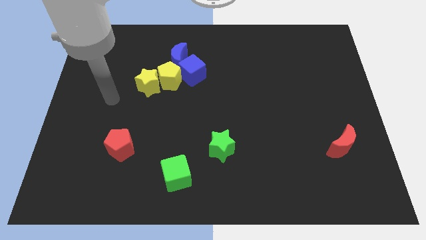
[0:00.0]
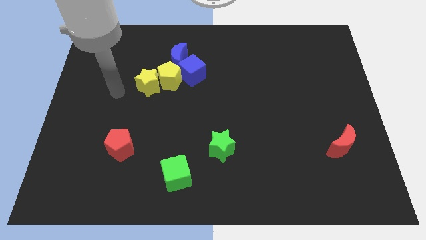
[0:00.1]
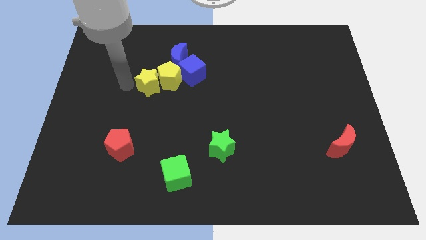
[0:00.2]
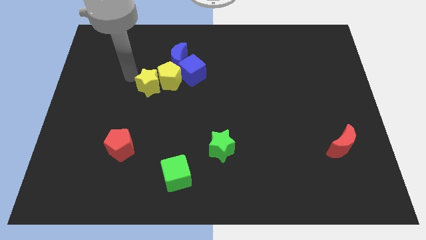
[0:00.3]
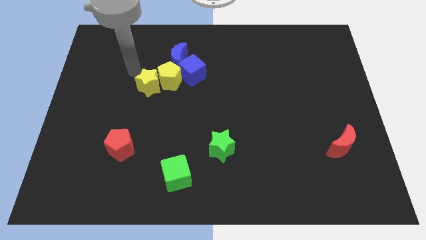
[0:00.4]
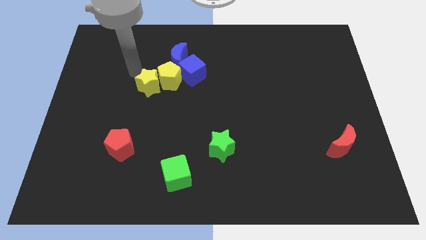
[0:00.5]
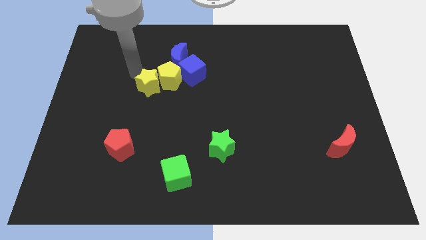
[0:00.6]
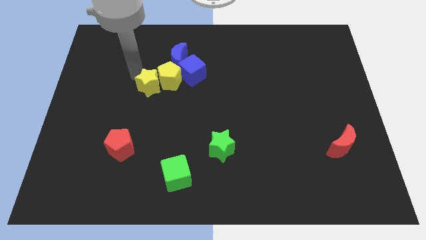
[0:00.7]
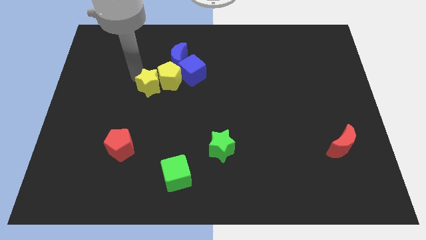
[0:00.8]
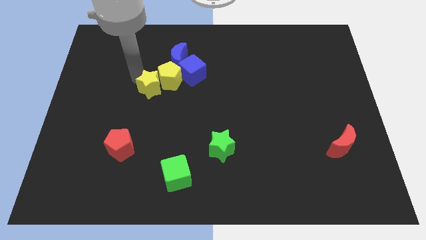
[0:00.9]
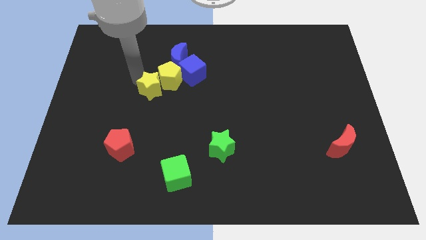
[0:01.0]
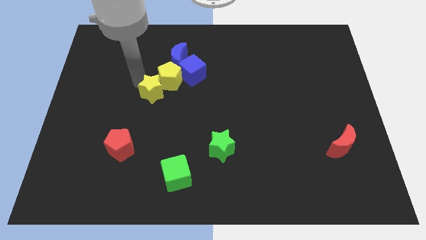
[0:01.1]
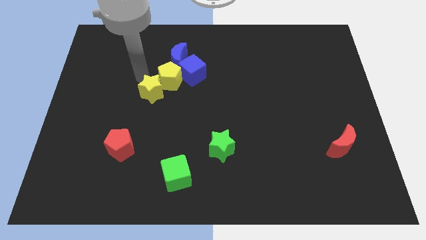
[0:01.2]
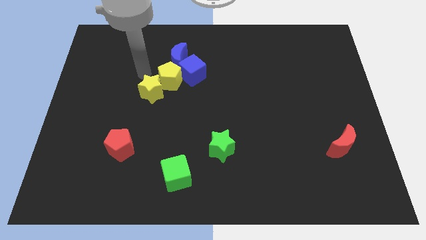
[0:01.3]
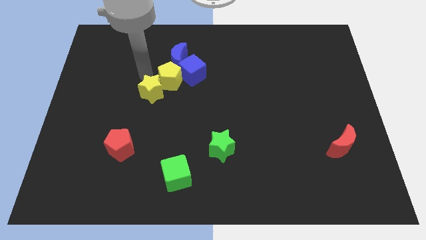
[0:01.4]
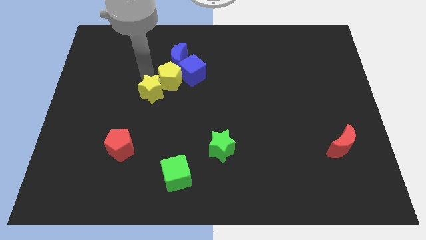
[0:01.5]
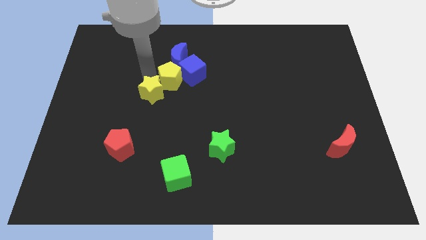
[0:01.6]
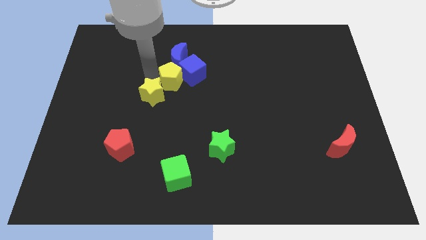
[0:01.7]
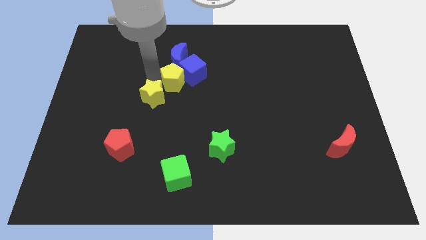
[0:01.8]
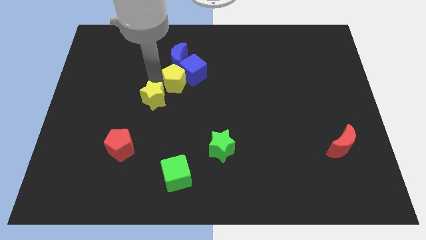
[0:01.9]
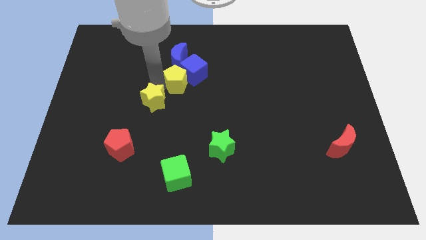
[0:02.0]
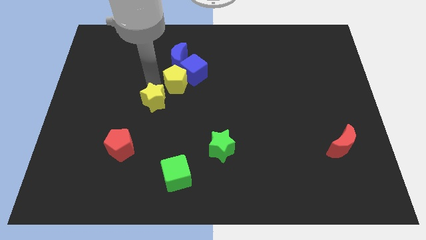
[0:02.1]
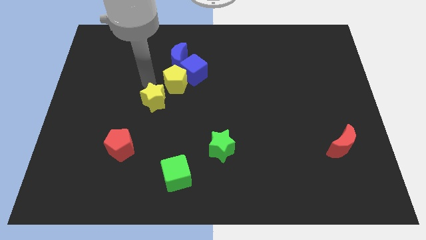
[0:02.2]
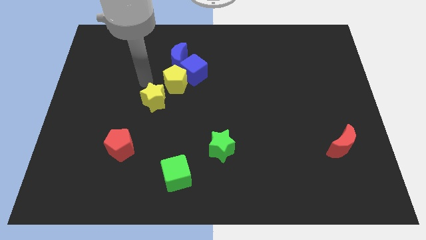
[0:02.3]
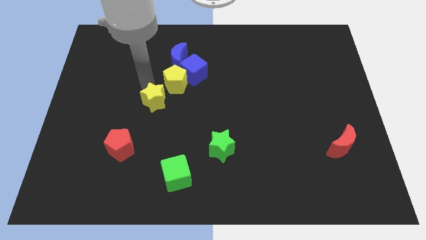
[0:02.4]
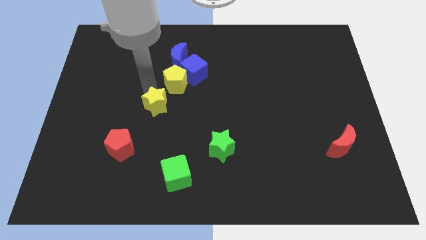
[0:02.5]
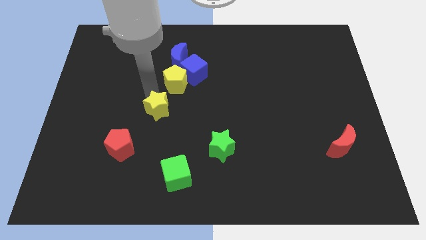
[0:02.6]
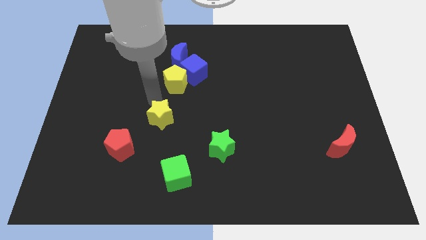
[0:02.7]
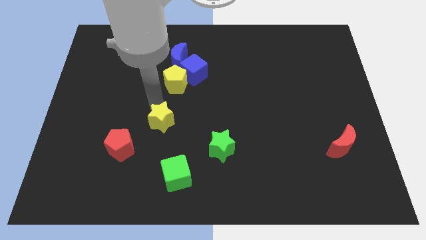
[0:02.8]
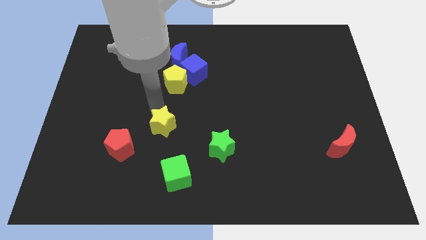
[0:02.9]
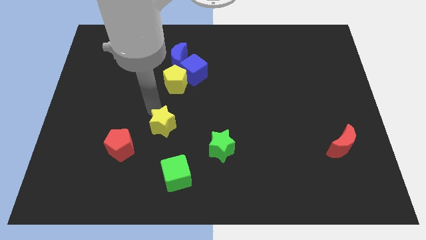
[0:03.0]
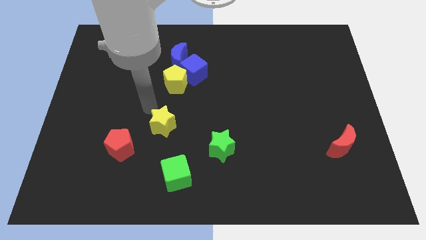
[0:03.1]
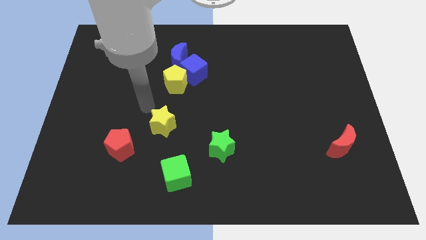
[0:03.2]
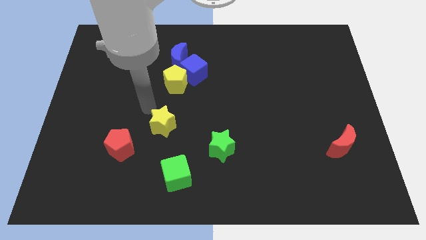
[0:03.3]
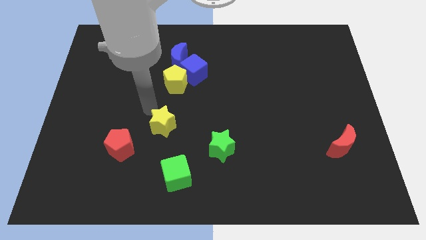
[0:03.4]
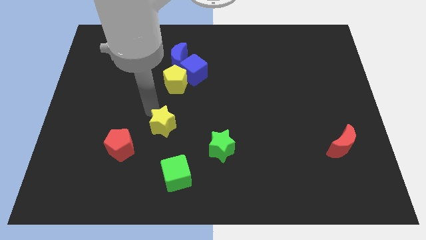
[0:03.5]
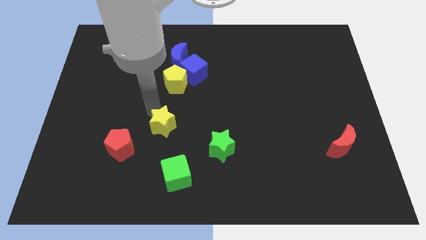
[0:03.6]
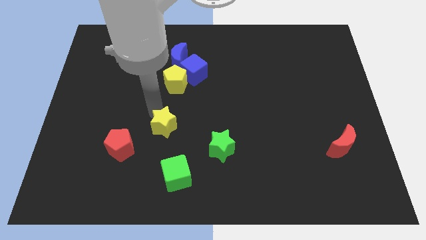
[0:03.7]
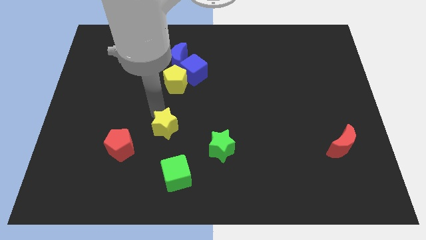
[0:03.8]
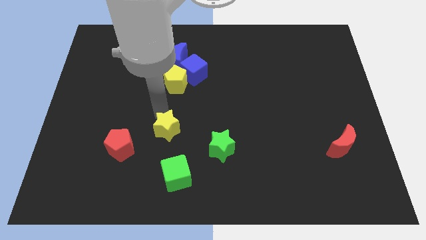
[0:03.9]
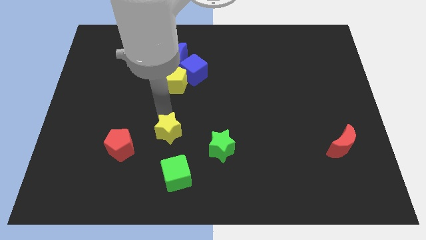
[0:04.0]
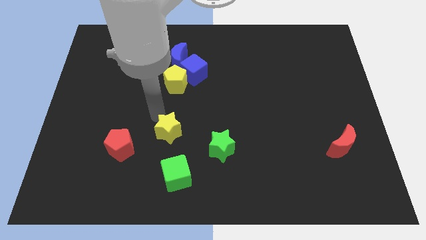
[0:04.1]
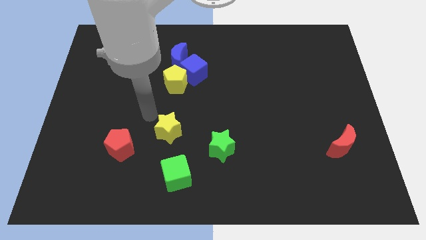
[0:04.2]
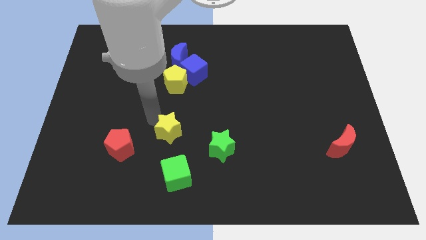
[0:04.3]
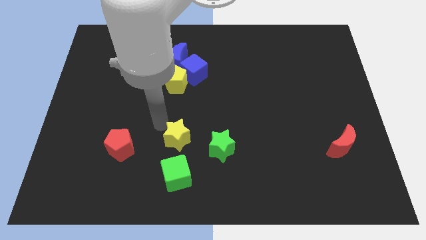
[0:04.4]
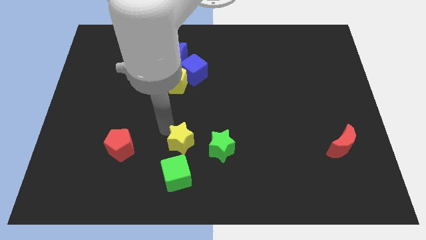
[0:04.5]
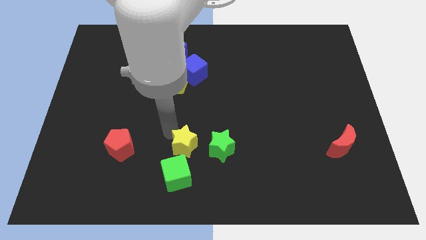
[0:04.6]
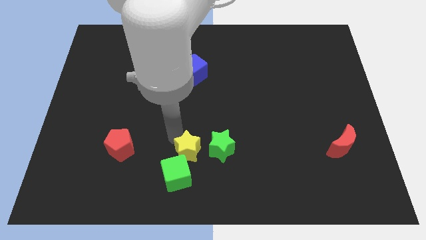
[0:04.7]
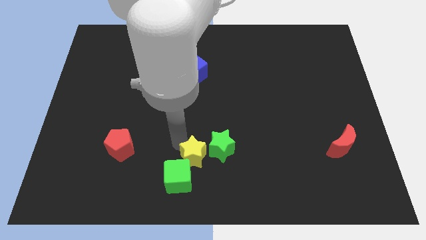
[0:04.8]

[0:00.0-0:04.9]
push the yellow star down and to the right

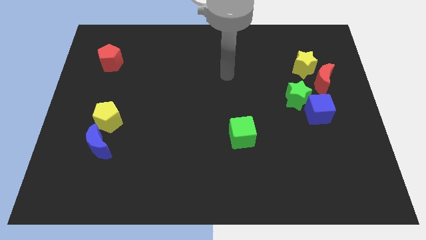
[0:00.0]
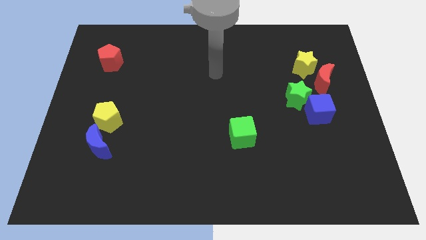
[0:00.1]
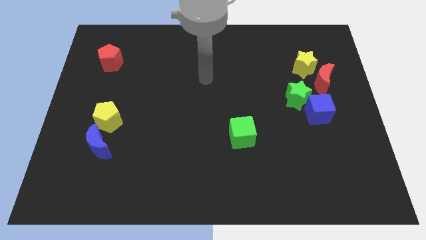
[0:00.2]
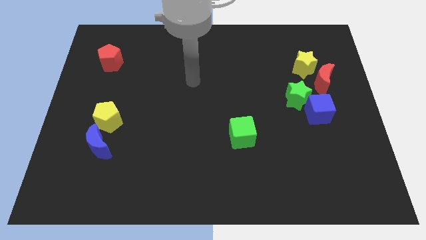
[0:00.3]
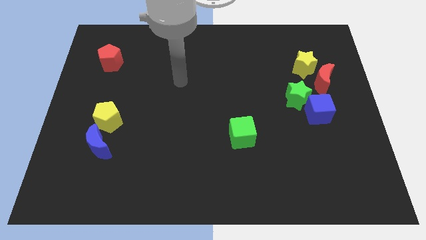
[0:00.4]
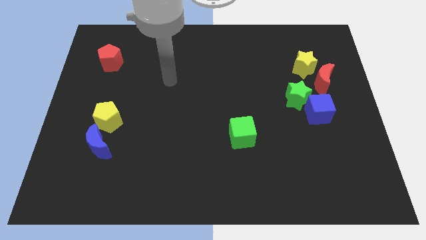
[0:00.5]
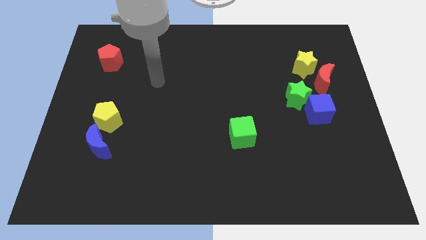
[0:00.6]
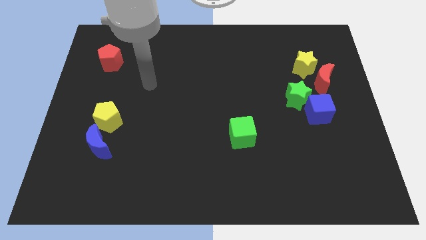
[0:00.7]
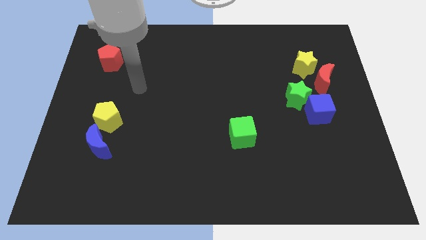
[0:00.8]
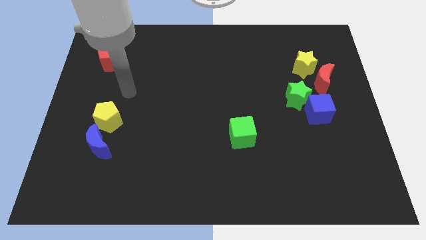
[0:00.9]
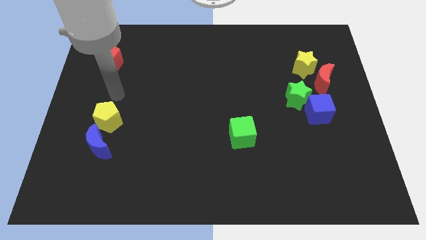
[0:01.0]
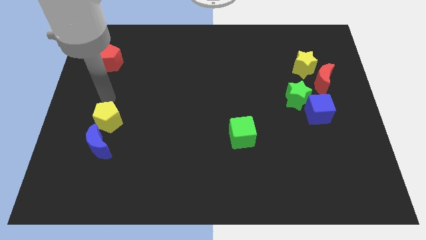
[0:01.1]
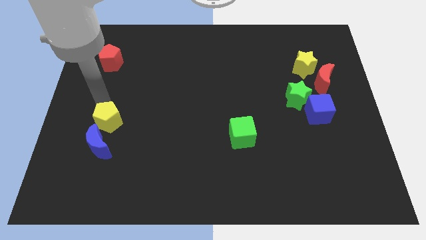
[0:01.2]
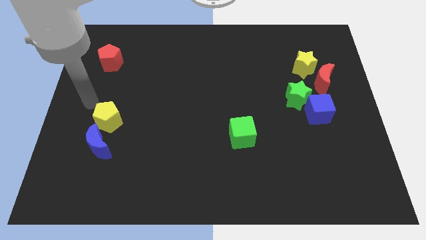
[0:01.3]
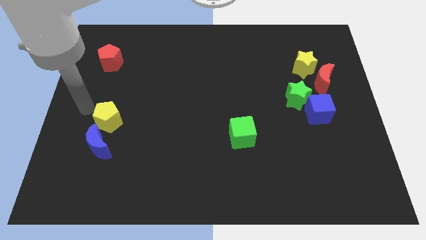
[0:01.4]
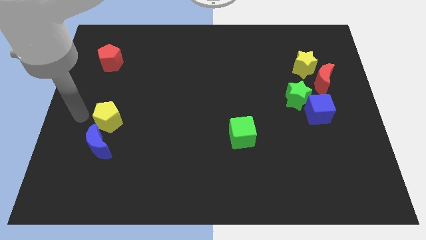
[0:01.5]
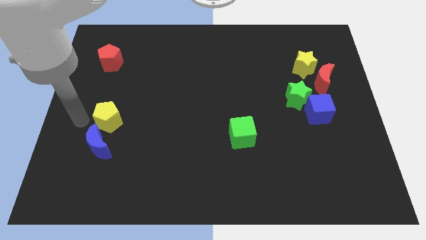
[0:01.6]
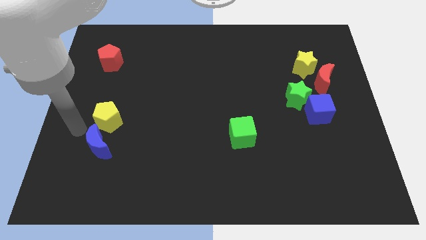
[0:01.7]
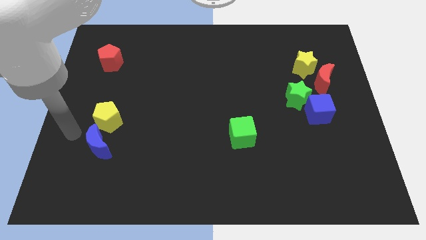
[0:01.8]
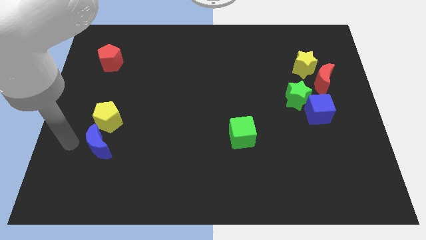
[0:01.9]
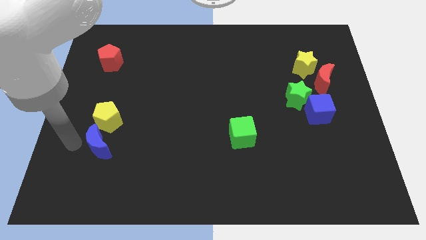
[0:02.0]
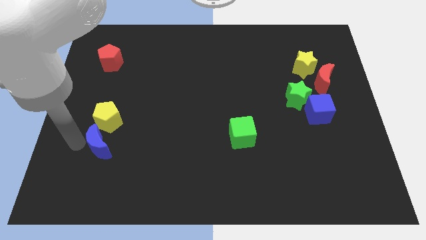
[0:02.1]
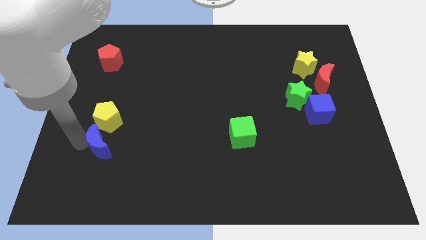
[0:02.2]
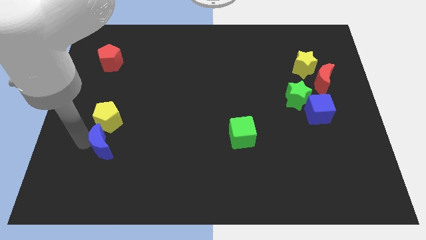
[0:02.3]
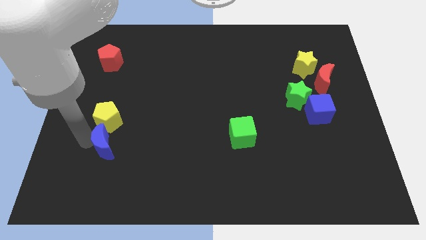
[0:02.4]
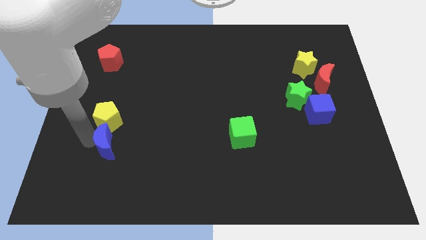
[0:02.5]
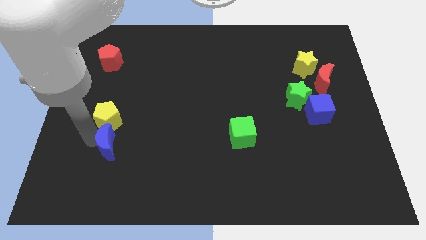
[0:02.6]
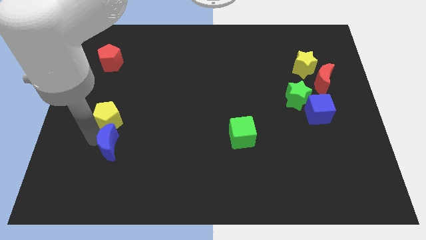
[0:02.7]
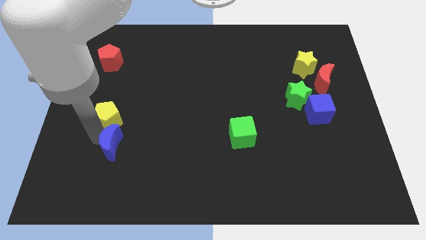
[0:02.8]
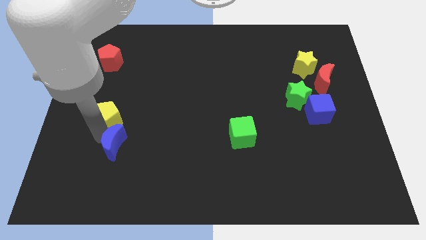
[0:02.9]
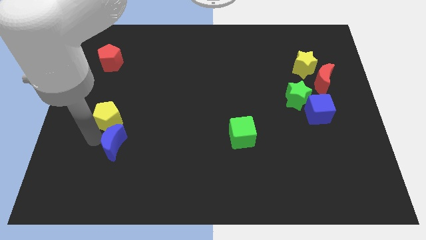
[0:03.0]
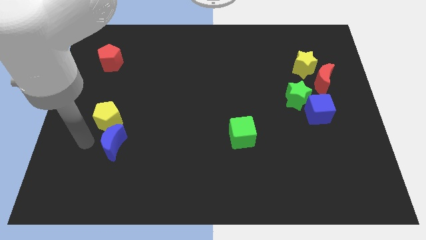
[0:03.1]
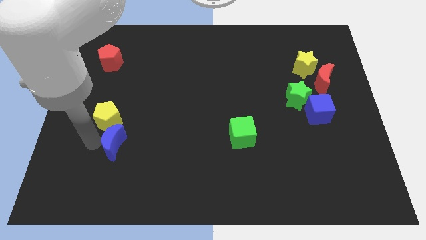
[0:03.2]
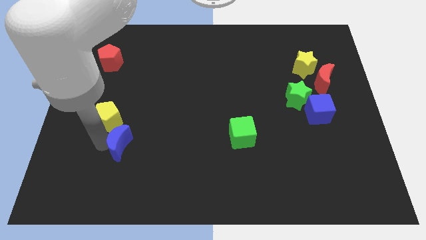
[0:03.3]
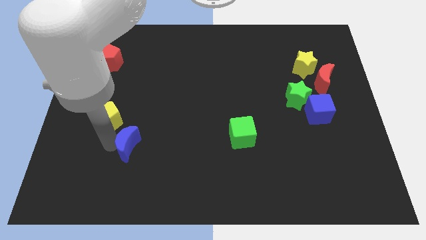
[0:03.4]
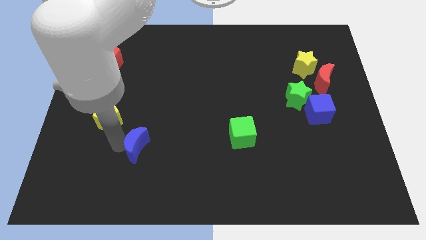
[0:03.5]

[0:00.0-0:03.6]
slide the blue moon right somewhat
